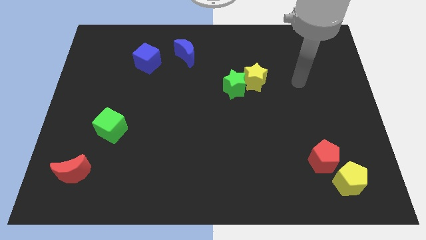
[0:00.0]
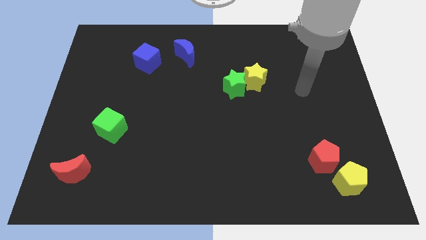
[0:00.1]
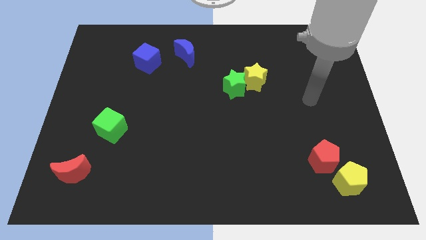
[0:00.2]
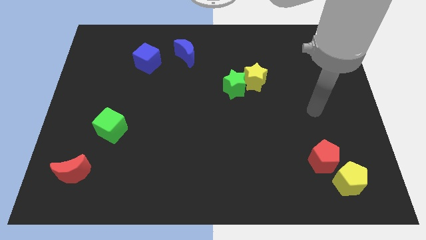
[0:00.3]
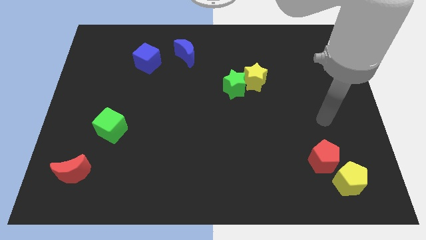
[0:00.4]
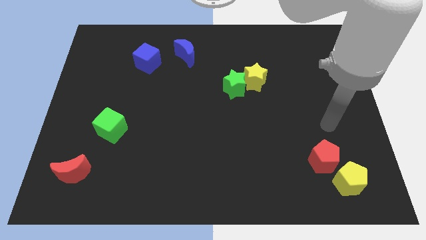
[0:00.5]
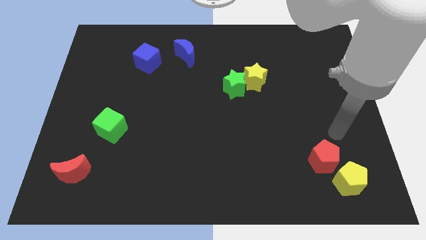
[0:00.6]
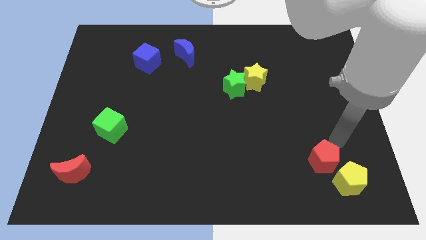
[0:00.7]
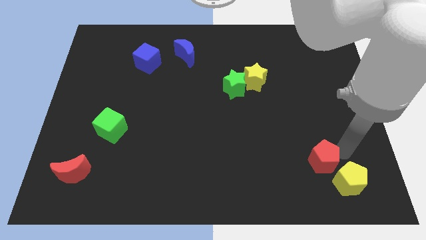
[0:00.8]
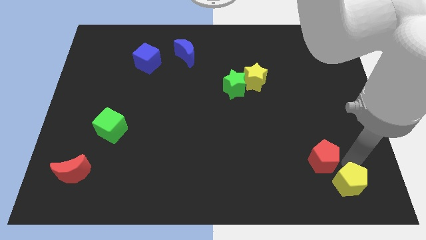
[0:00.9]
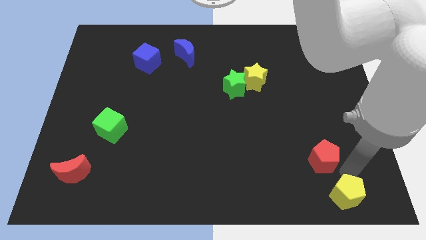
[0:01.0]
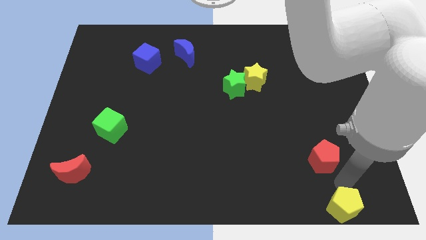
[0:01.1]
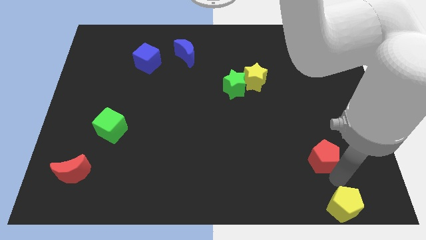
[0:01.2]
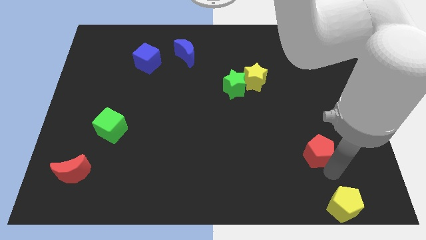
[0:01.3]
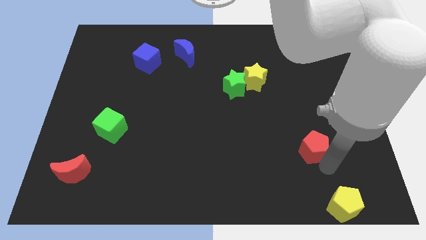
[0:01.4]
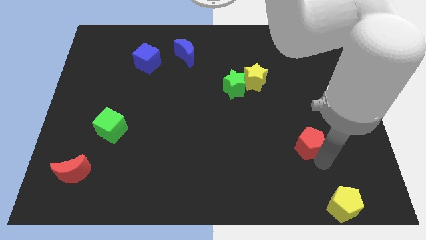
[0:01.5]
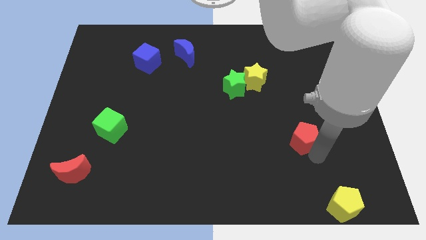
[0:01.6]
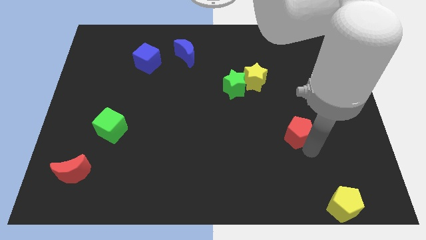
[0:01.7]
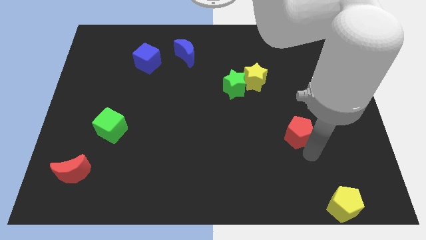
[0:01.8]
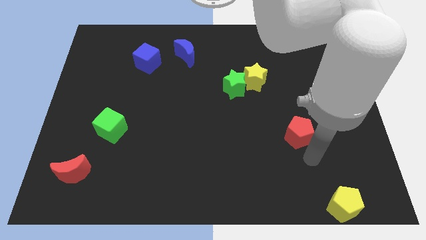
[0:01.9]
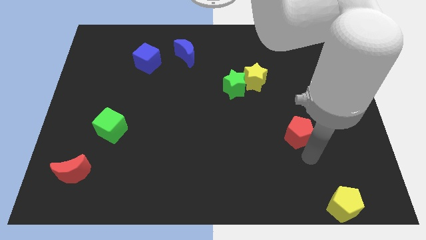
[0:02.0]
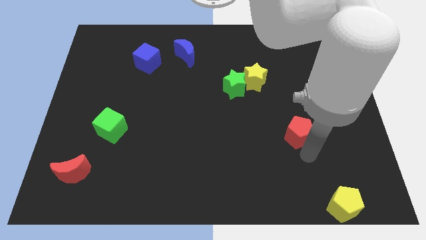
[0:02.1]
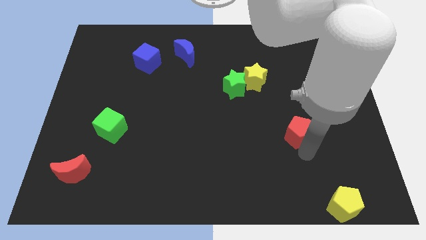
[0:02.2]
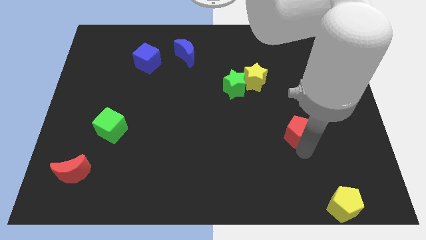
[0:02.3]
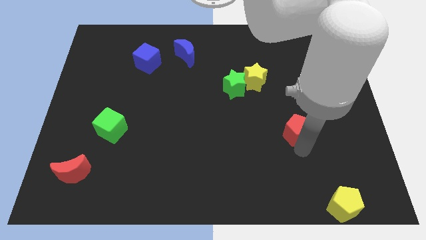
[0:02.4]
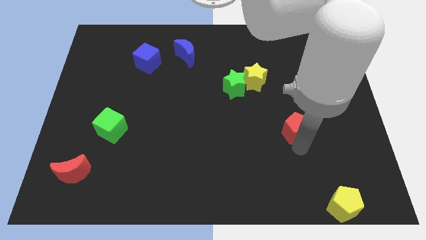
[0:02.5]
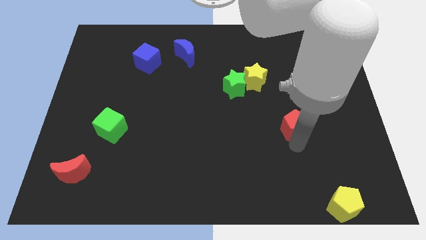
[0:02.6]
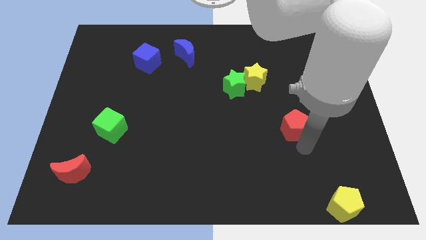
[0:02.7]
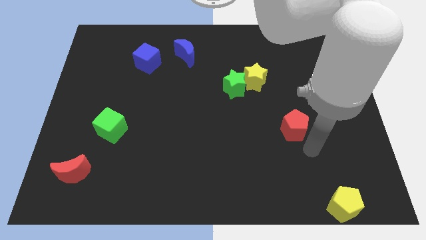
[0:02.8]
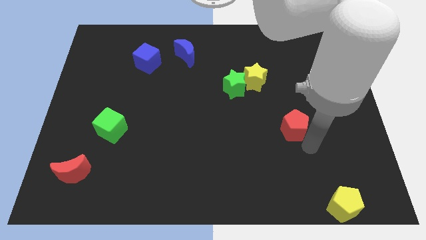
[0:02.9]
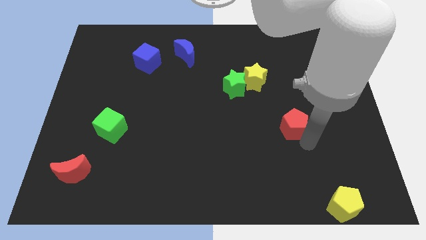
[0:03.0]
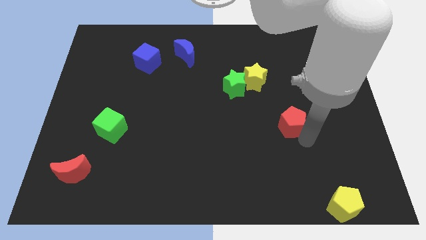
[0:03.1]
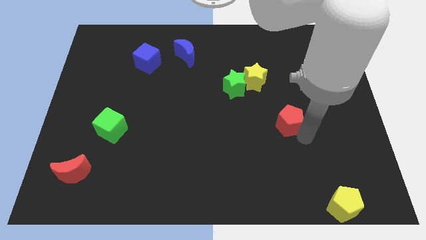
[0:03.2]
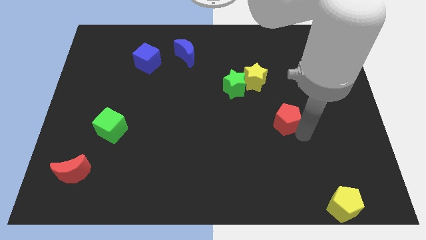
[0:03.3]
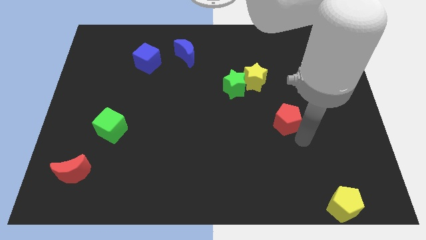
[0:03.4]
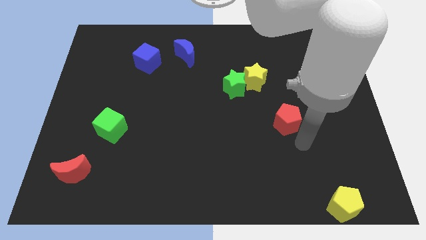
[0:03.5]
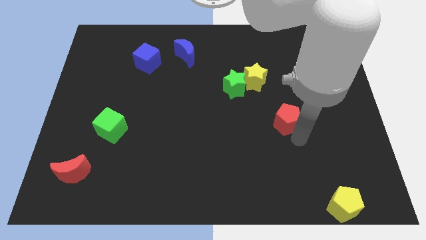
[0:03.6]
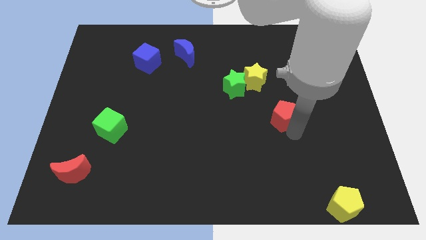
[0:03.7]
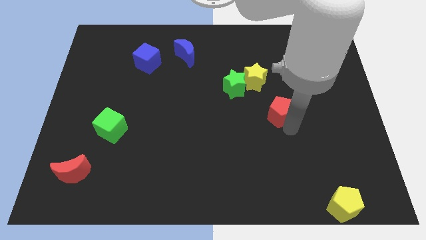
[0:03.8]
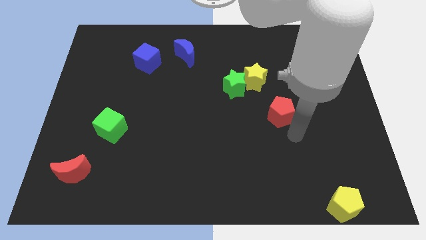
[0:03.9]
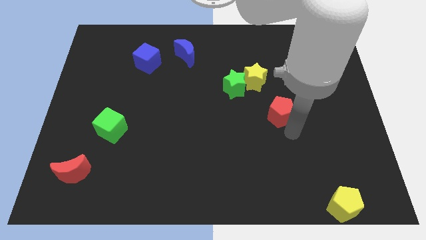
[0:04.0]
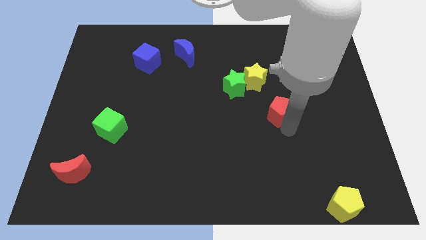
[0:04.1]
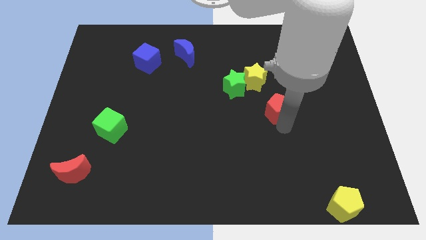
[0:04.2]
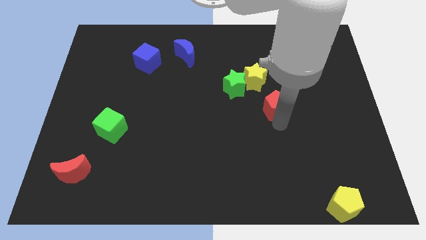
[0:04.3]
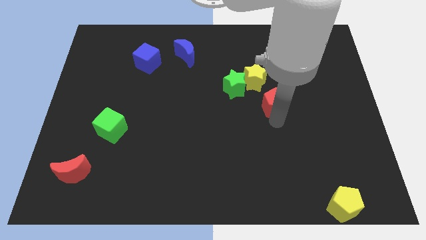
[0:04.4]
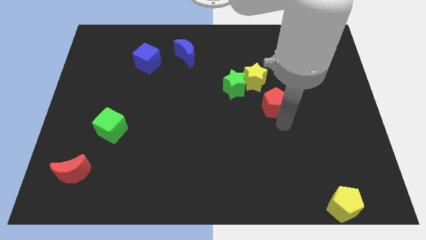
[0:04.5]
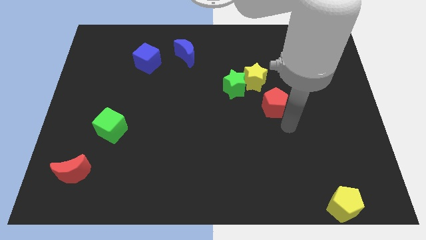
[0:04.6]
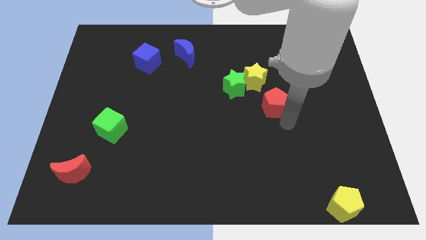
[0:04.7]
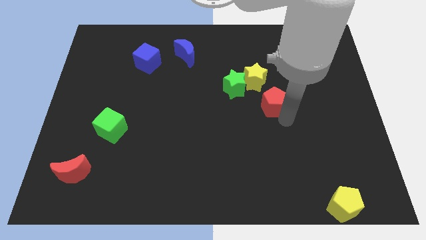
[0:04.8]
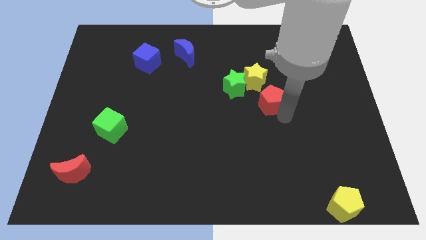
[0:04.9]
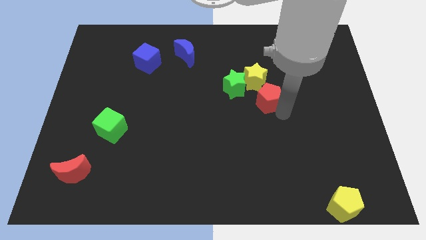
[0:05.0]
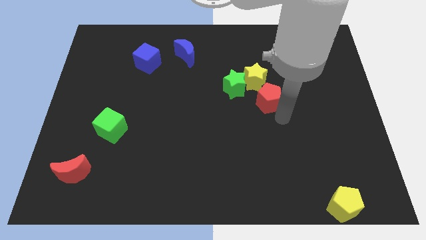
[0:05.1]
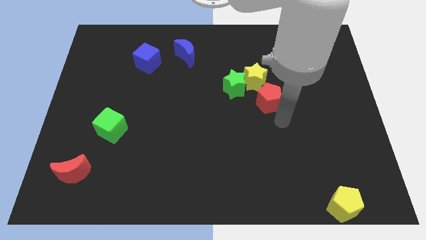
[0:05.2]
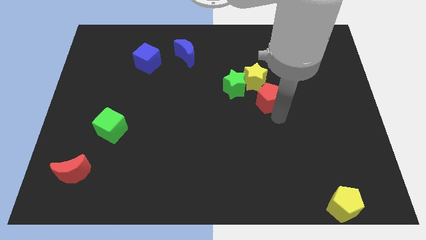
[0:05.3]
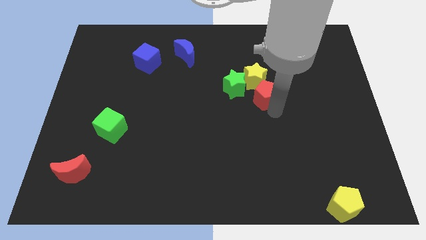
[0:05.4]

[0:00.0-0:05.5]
push the red pentagon next to the yellow star

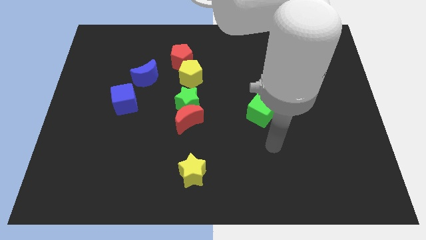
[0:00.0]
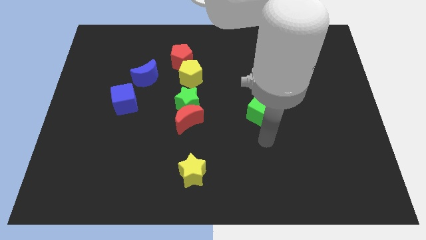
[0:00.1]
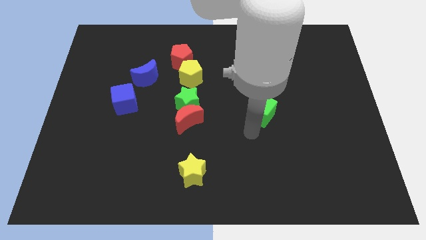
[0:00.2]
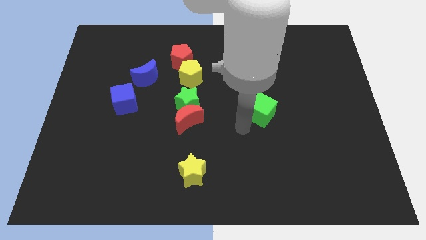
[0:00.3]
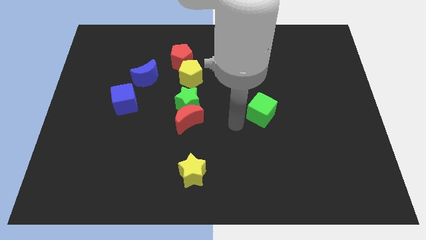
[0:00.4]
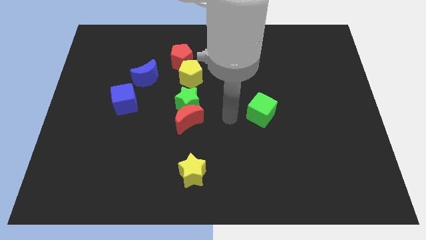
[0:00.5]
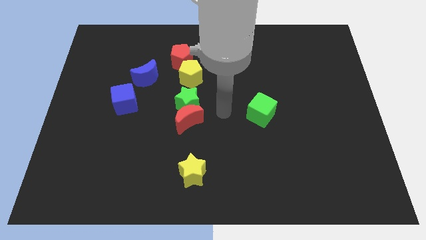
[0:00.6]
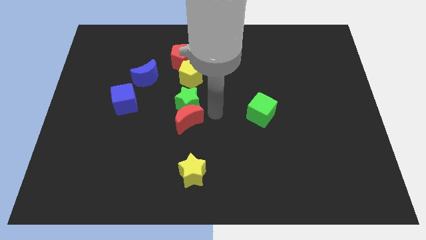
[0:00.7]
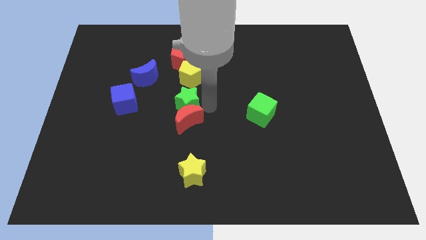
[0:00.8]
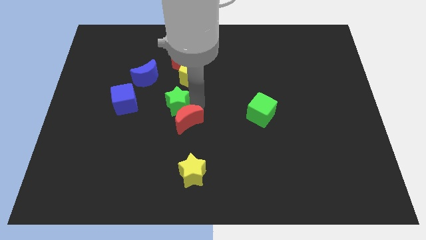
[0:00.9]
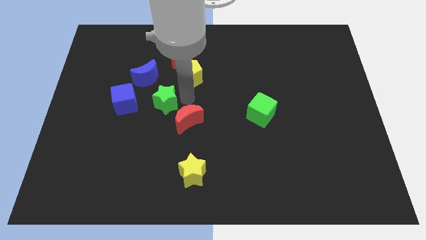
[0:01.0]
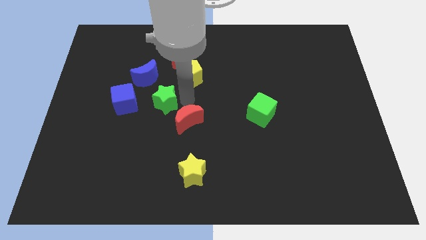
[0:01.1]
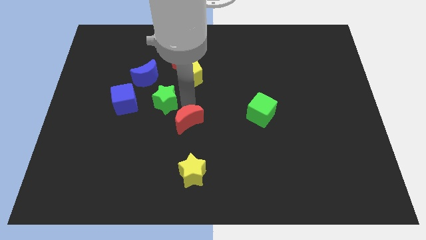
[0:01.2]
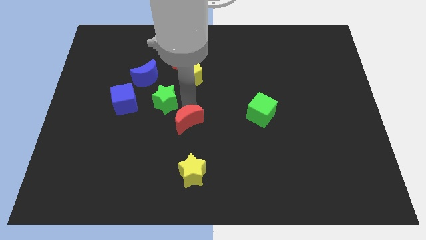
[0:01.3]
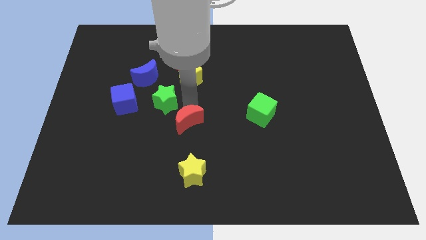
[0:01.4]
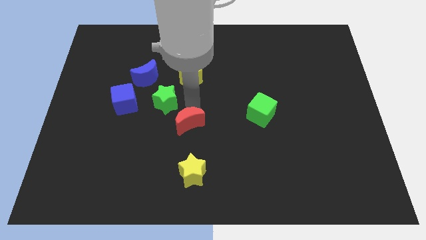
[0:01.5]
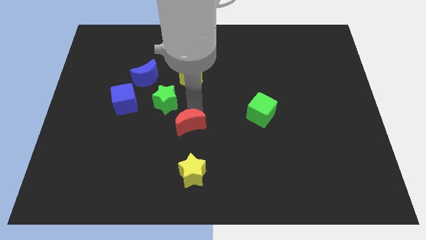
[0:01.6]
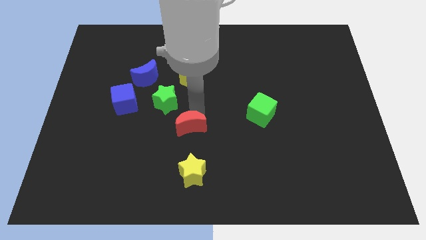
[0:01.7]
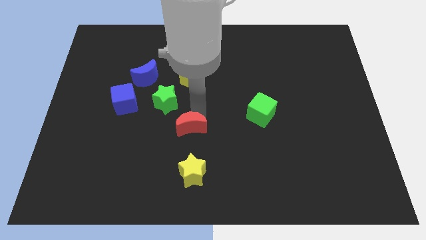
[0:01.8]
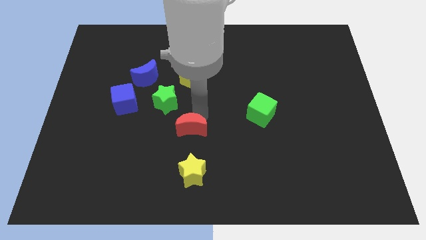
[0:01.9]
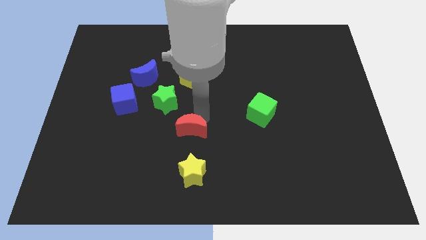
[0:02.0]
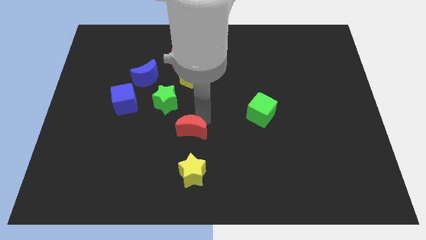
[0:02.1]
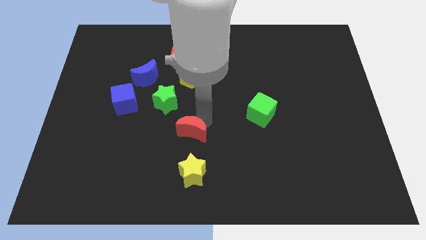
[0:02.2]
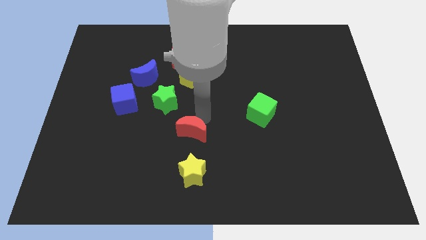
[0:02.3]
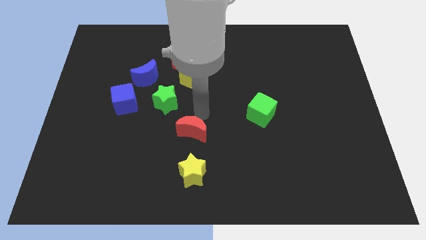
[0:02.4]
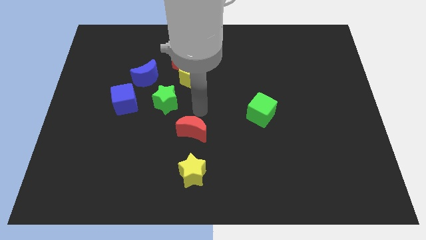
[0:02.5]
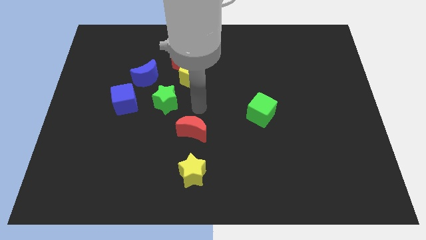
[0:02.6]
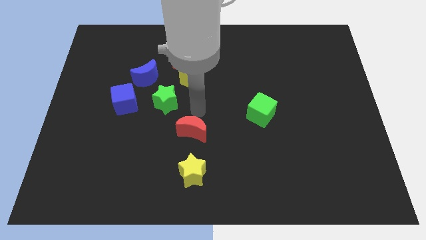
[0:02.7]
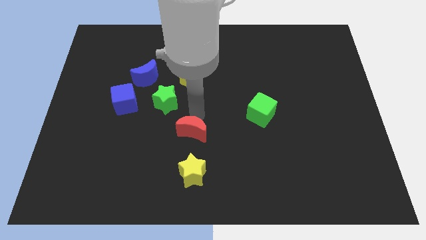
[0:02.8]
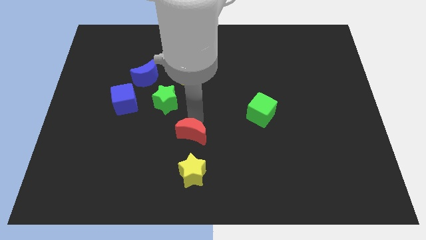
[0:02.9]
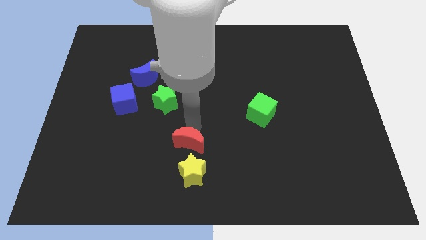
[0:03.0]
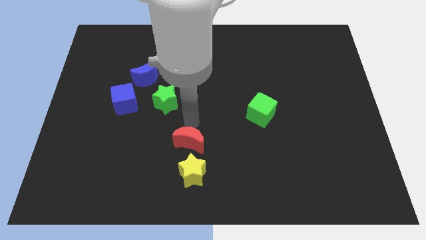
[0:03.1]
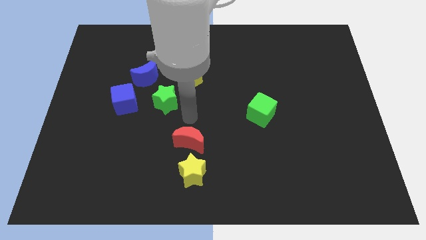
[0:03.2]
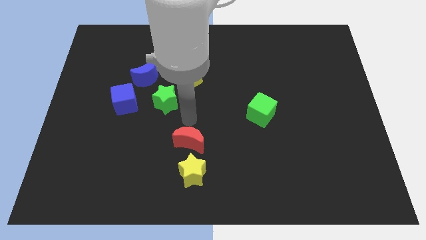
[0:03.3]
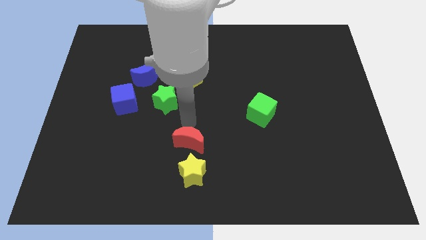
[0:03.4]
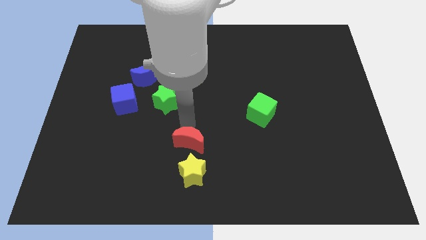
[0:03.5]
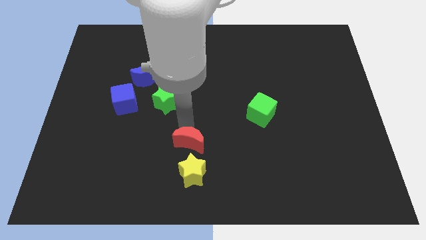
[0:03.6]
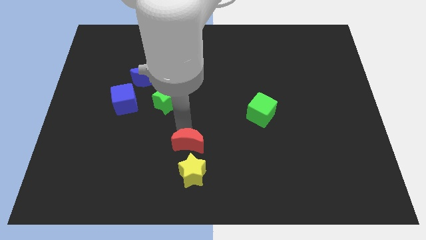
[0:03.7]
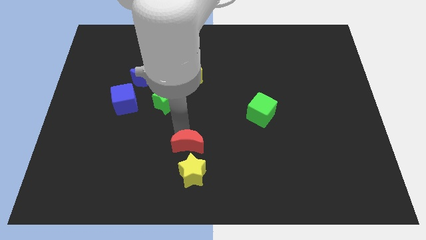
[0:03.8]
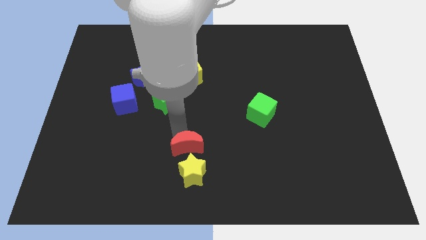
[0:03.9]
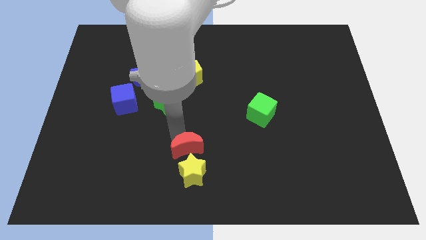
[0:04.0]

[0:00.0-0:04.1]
push the red moon close to the yellow star
